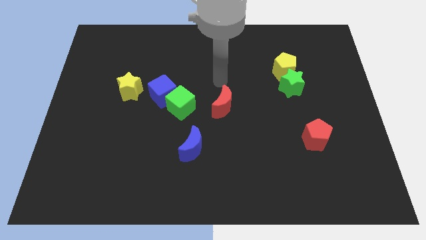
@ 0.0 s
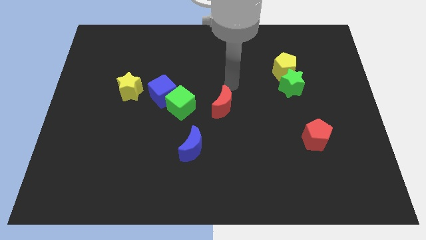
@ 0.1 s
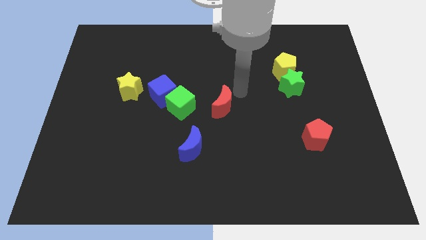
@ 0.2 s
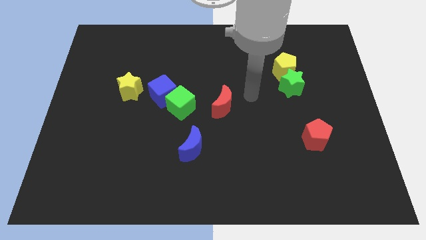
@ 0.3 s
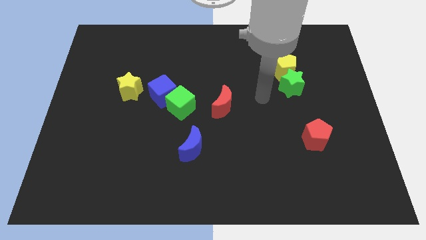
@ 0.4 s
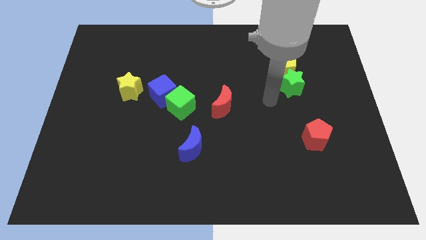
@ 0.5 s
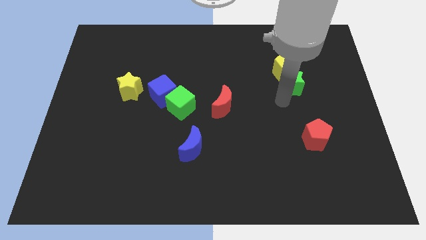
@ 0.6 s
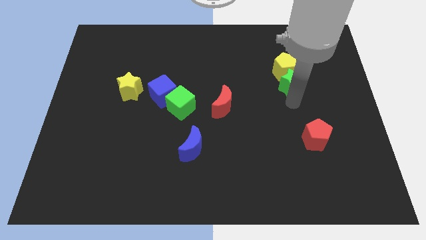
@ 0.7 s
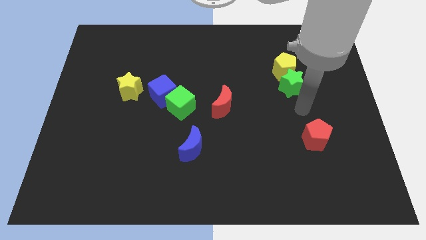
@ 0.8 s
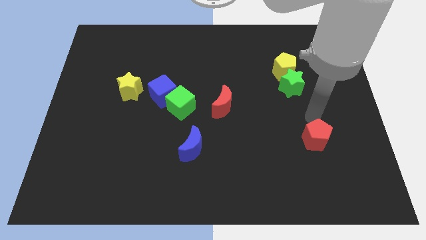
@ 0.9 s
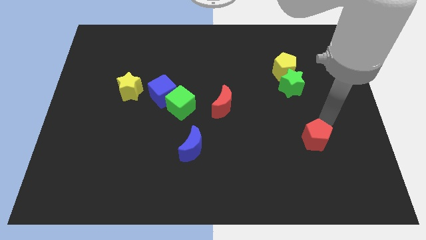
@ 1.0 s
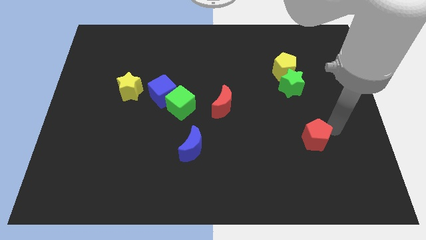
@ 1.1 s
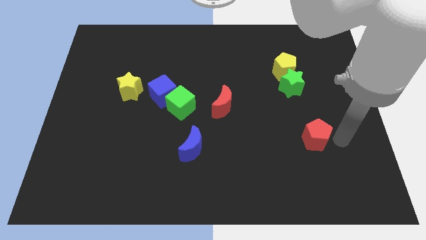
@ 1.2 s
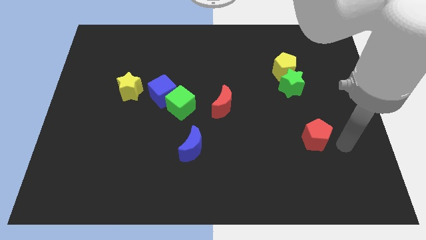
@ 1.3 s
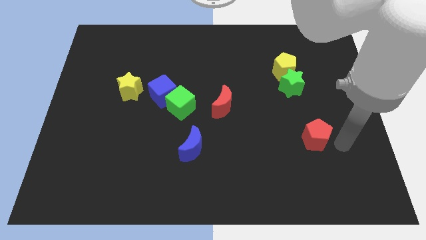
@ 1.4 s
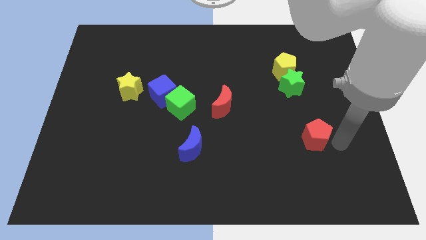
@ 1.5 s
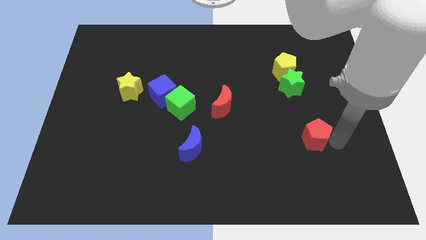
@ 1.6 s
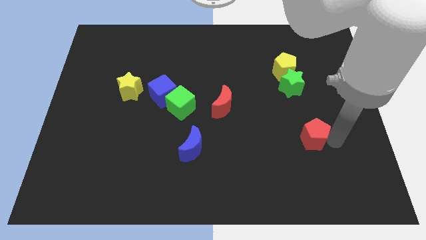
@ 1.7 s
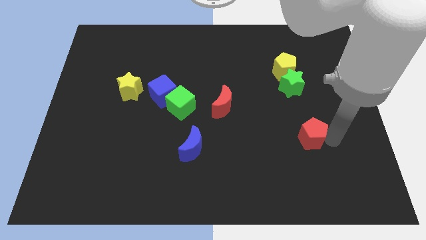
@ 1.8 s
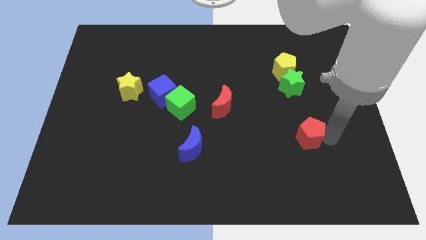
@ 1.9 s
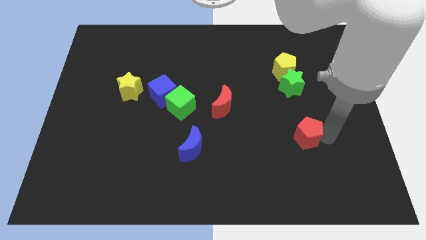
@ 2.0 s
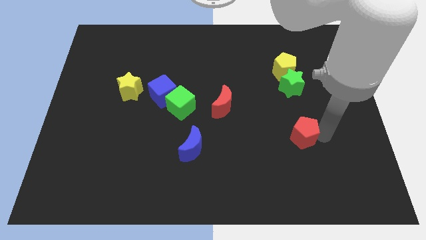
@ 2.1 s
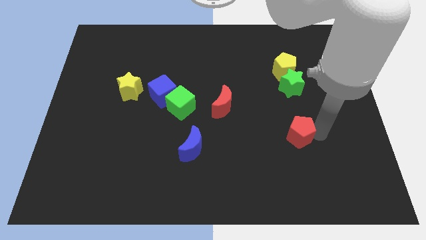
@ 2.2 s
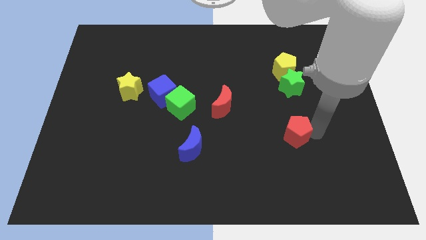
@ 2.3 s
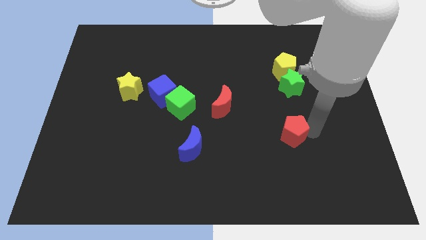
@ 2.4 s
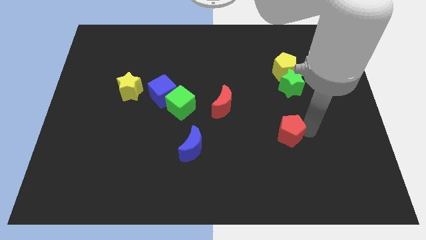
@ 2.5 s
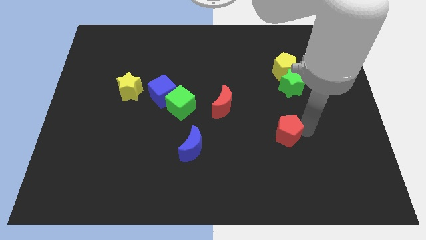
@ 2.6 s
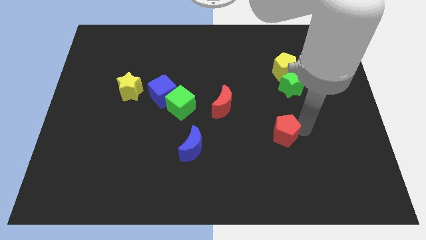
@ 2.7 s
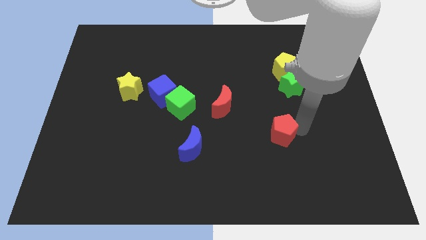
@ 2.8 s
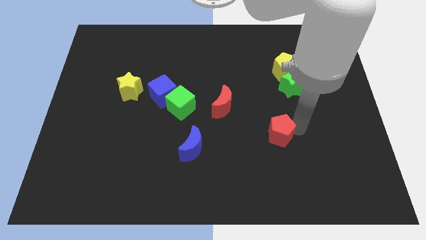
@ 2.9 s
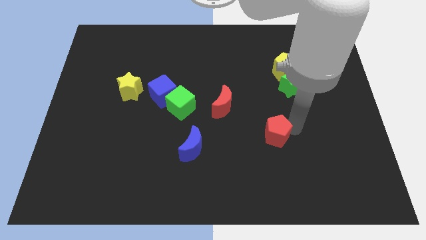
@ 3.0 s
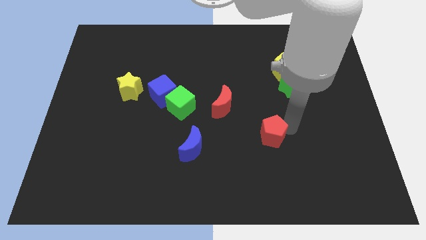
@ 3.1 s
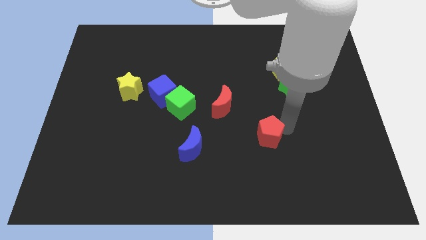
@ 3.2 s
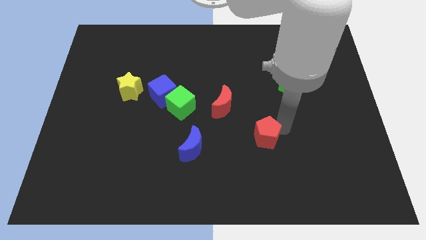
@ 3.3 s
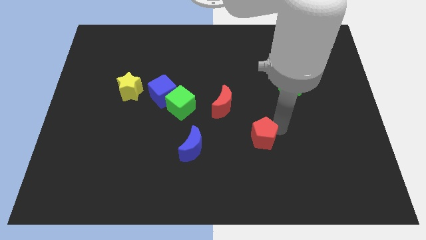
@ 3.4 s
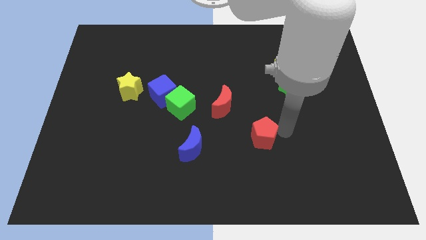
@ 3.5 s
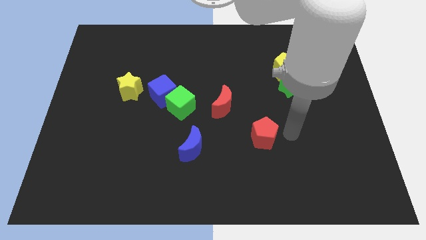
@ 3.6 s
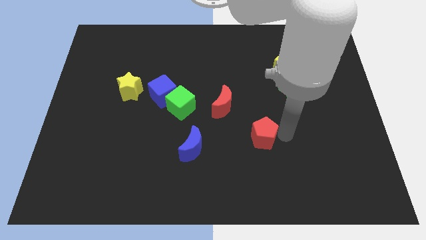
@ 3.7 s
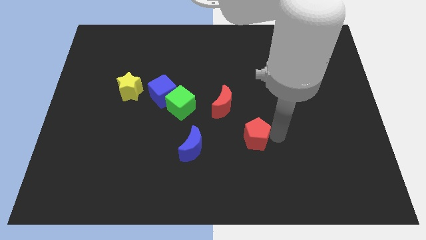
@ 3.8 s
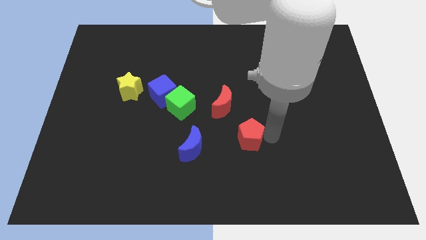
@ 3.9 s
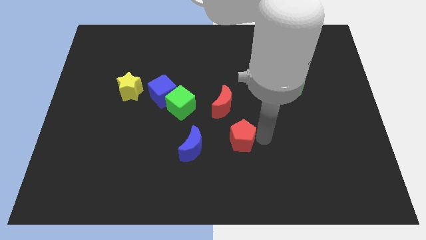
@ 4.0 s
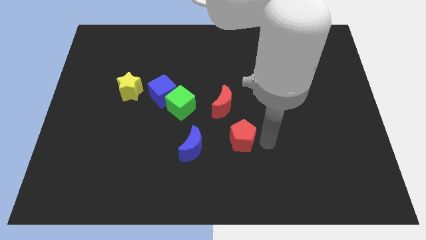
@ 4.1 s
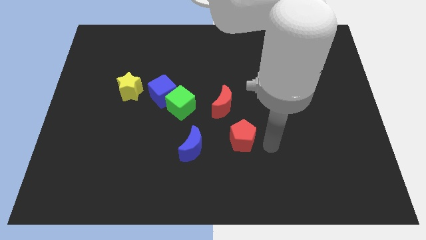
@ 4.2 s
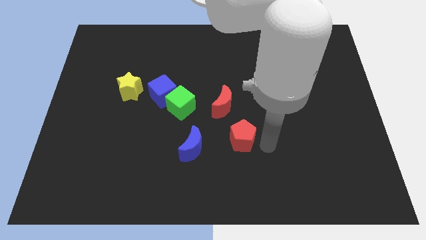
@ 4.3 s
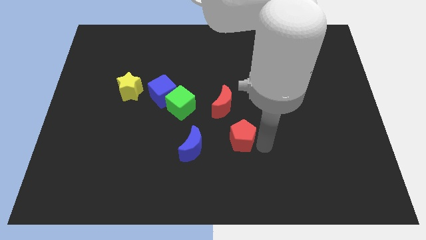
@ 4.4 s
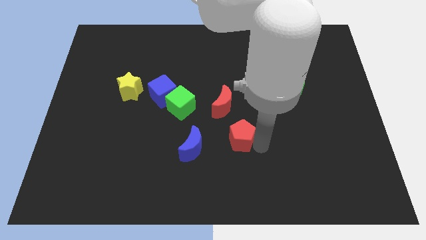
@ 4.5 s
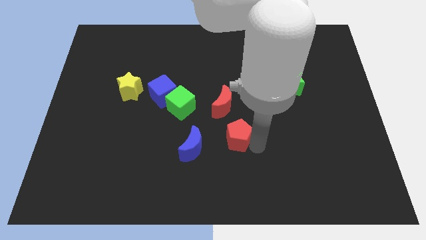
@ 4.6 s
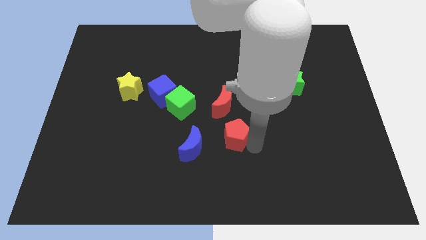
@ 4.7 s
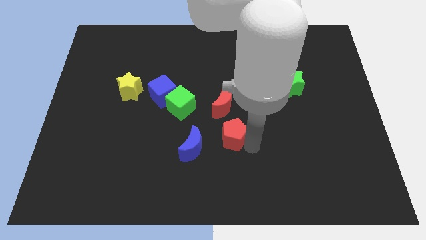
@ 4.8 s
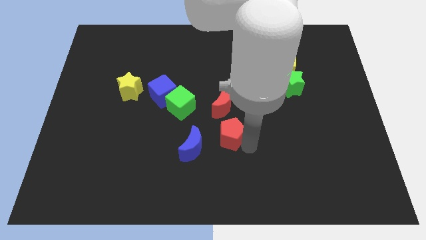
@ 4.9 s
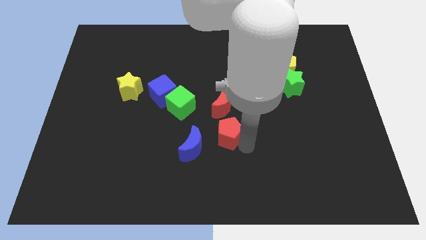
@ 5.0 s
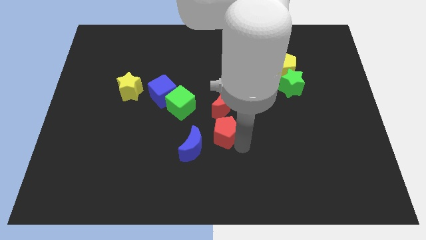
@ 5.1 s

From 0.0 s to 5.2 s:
push the red pentagon left

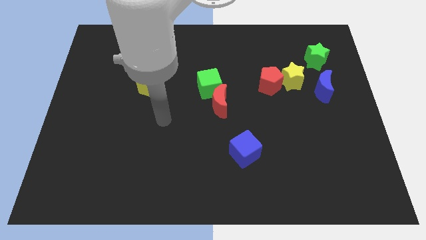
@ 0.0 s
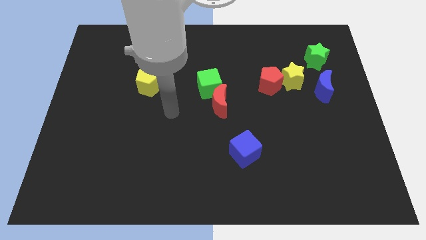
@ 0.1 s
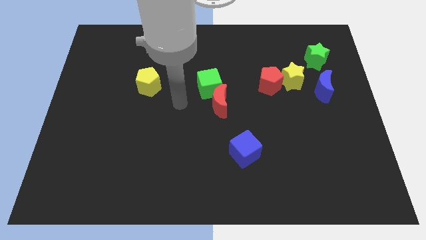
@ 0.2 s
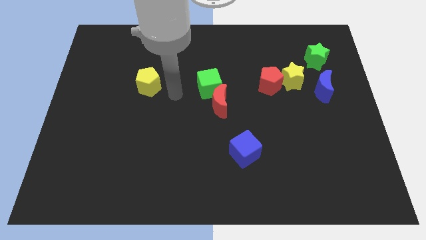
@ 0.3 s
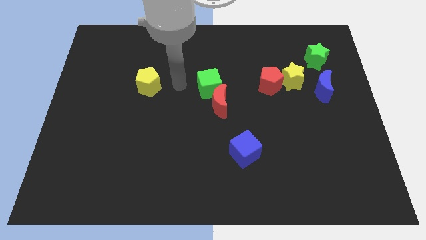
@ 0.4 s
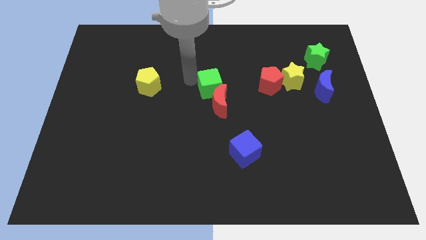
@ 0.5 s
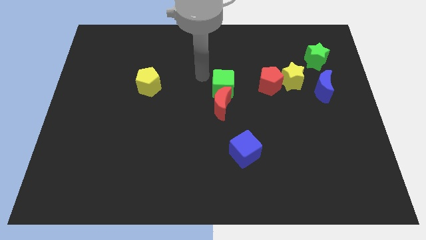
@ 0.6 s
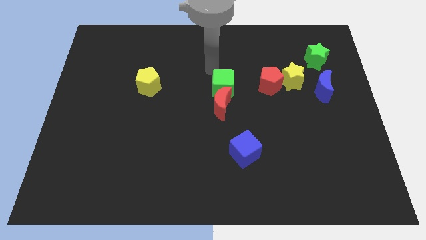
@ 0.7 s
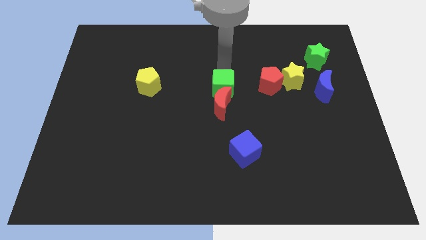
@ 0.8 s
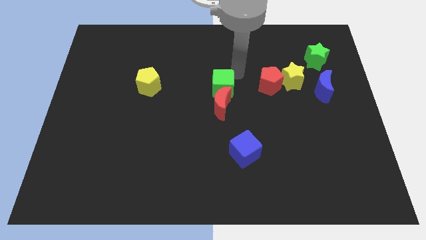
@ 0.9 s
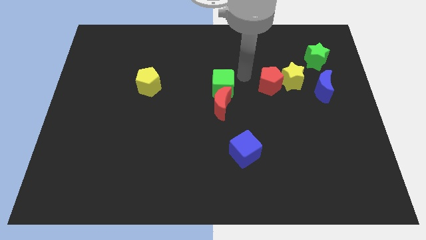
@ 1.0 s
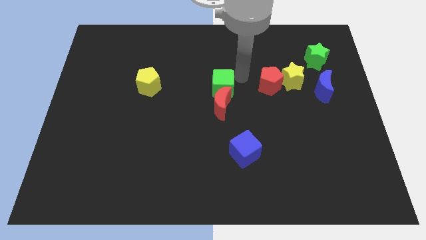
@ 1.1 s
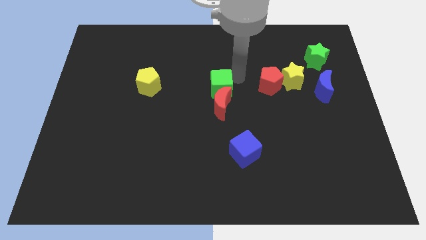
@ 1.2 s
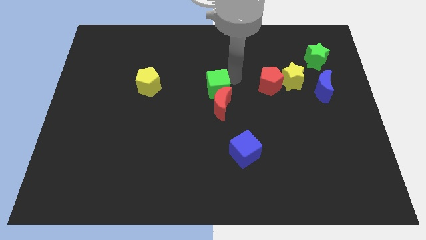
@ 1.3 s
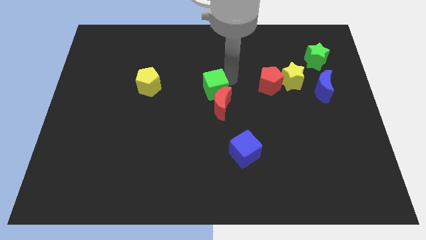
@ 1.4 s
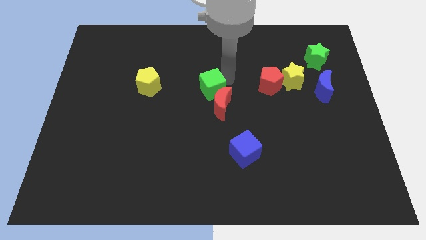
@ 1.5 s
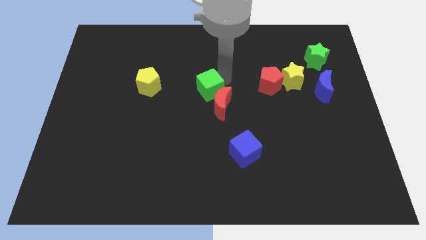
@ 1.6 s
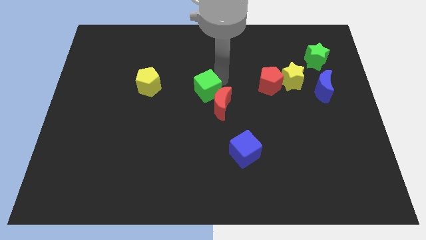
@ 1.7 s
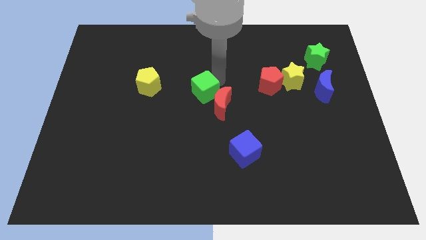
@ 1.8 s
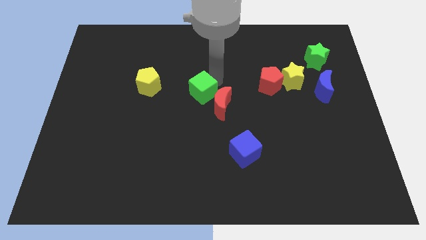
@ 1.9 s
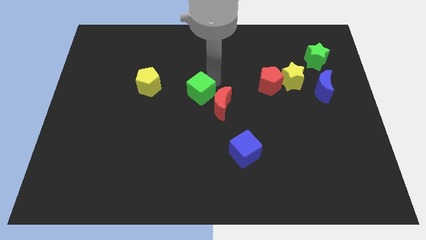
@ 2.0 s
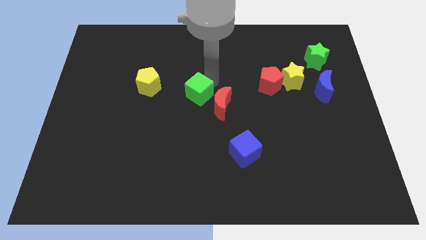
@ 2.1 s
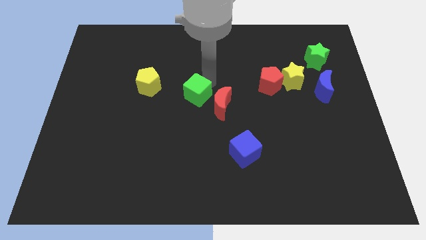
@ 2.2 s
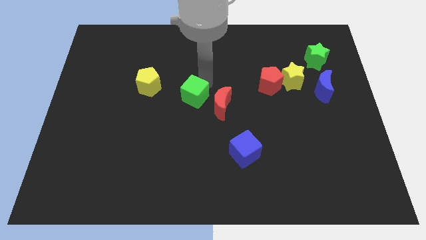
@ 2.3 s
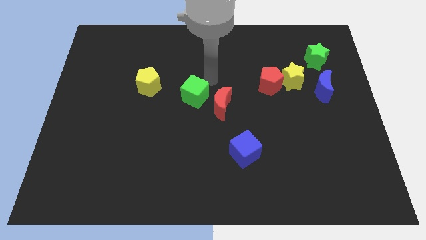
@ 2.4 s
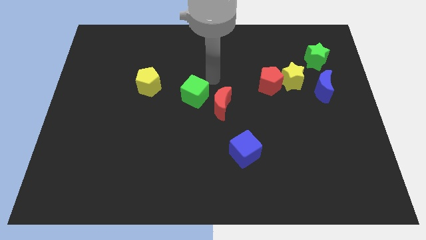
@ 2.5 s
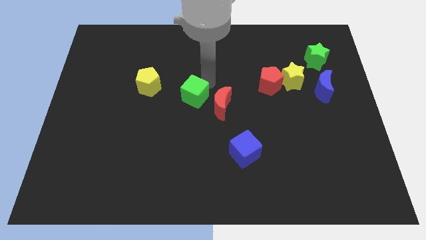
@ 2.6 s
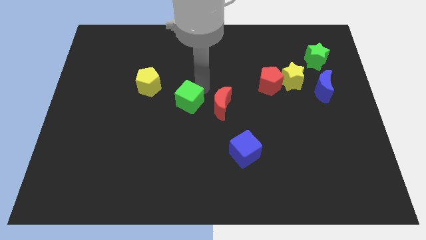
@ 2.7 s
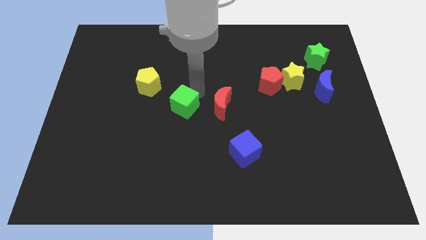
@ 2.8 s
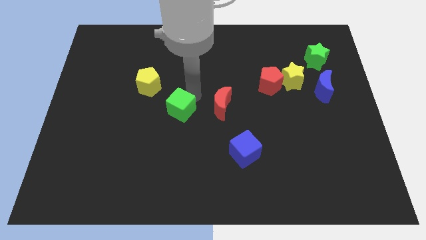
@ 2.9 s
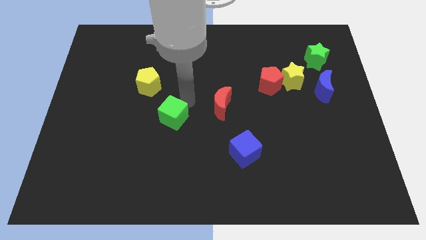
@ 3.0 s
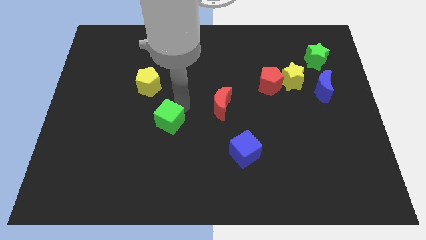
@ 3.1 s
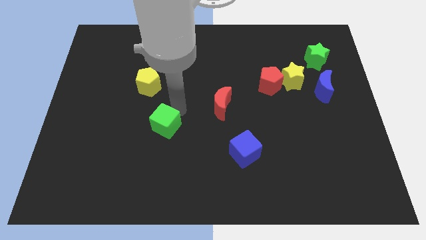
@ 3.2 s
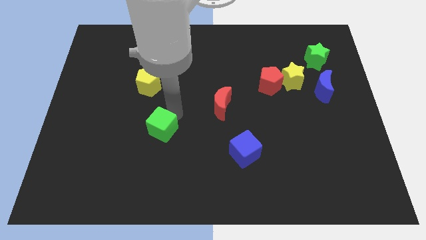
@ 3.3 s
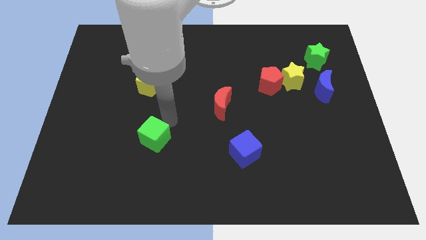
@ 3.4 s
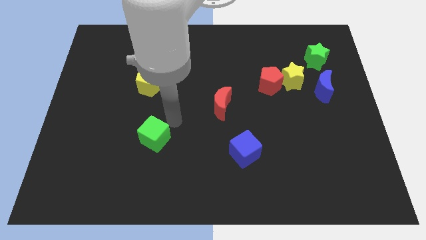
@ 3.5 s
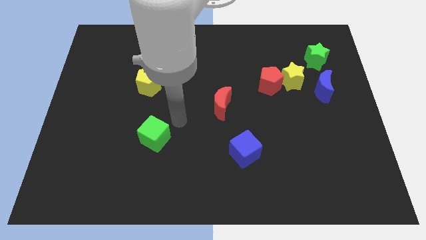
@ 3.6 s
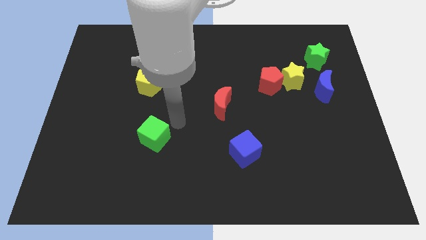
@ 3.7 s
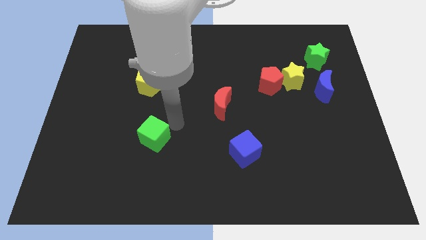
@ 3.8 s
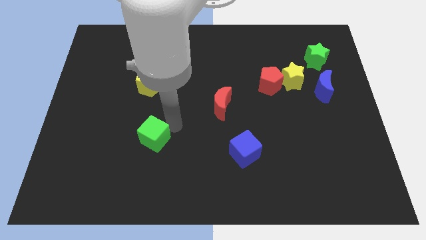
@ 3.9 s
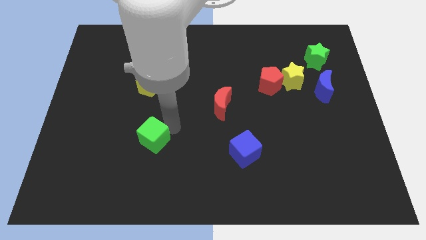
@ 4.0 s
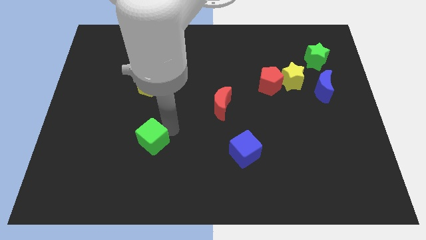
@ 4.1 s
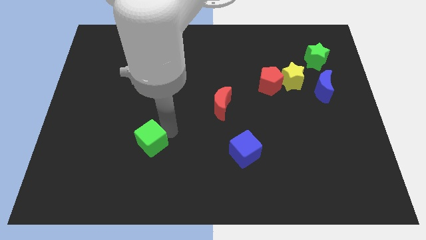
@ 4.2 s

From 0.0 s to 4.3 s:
push the green cube down and left
